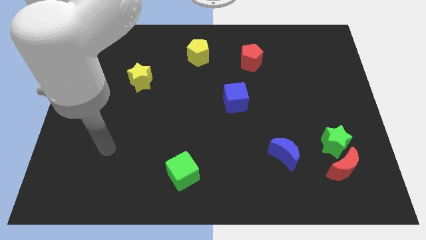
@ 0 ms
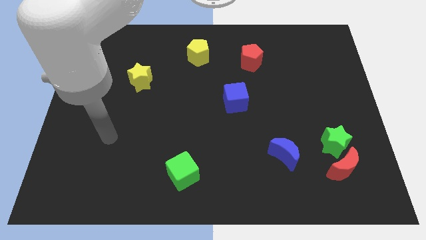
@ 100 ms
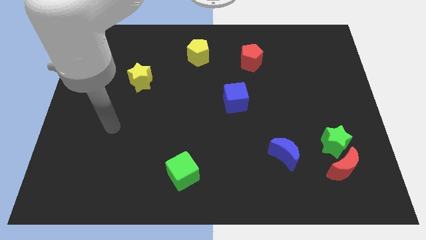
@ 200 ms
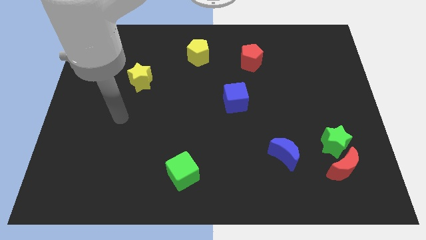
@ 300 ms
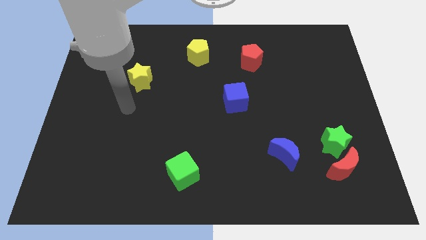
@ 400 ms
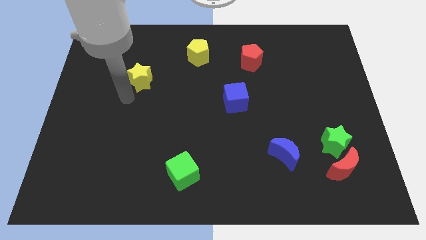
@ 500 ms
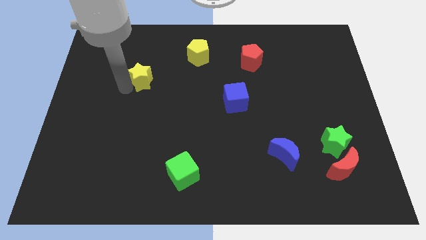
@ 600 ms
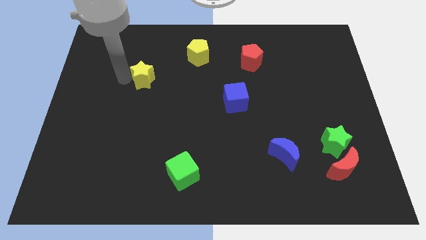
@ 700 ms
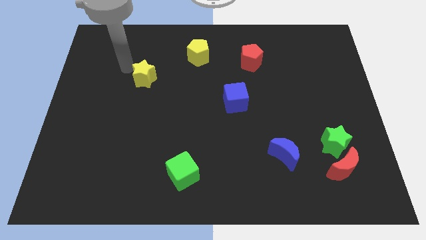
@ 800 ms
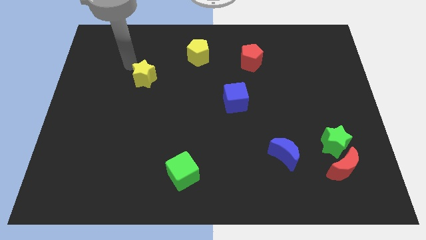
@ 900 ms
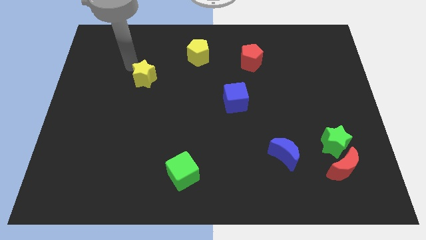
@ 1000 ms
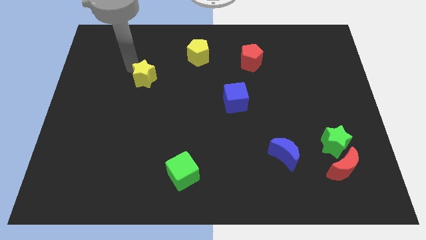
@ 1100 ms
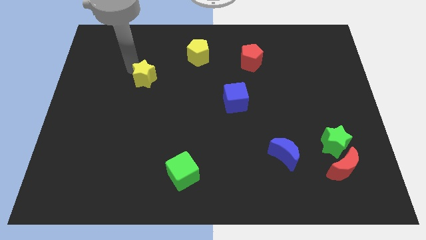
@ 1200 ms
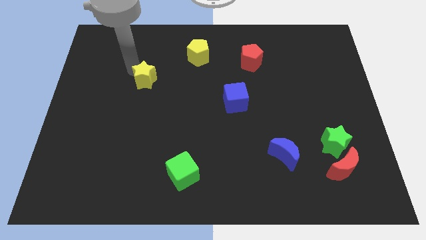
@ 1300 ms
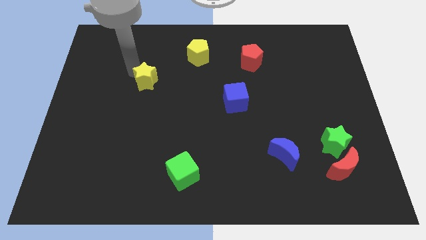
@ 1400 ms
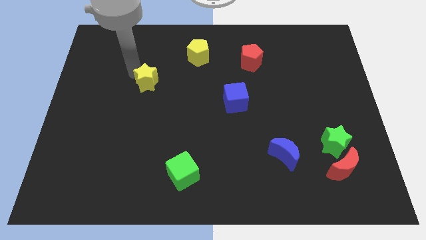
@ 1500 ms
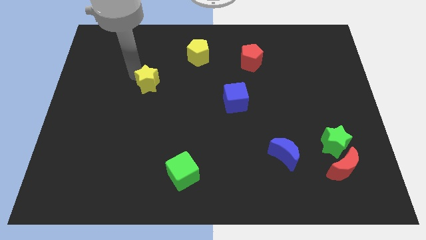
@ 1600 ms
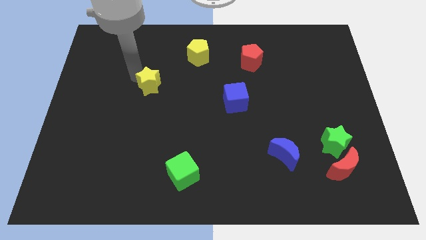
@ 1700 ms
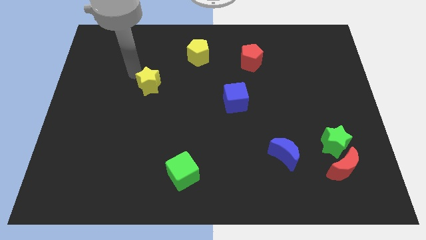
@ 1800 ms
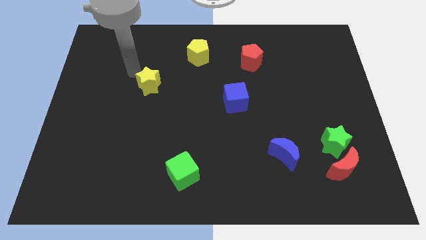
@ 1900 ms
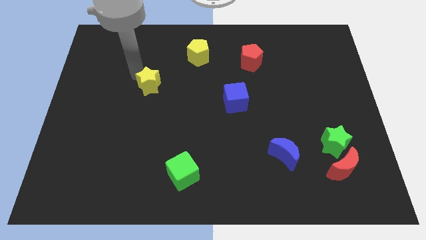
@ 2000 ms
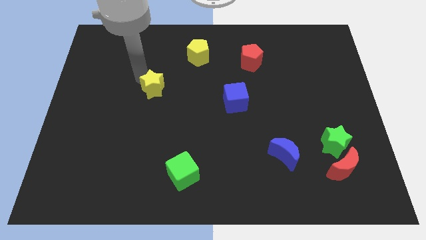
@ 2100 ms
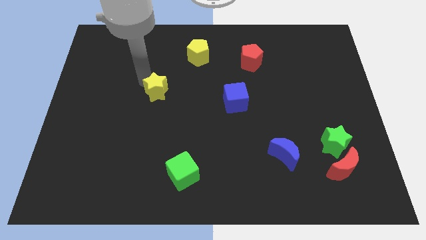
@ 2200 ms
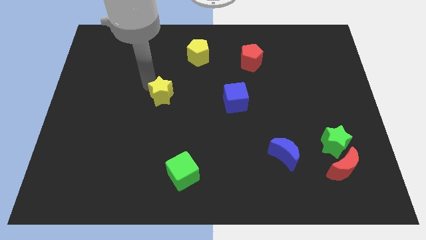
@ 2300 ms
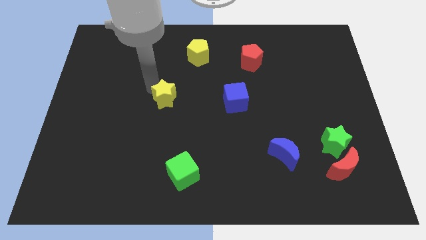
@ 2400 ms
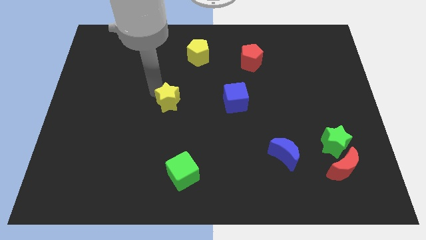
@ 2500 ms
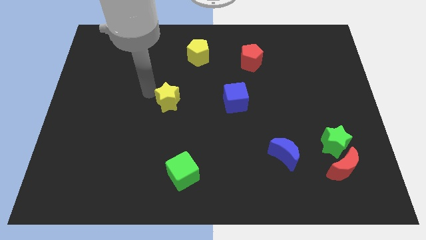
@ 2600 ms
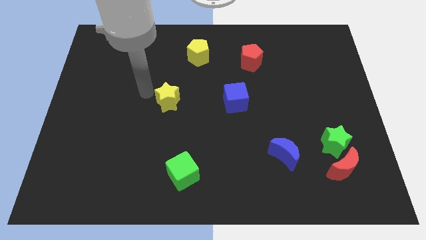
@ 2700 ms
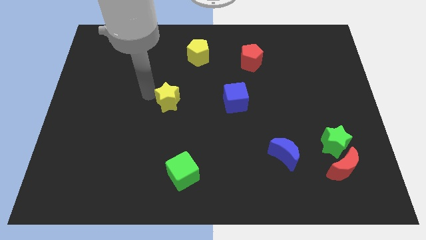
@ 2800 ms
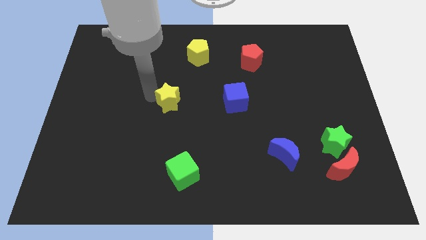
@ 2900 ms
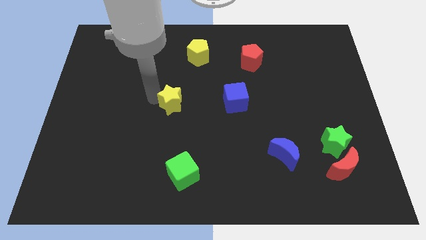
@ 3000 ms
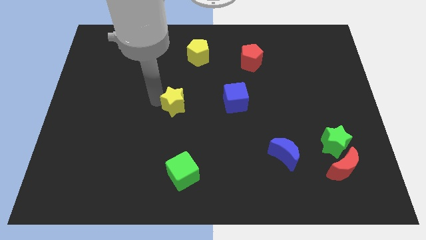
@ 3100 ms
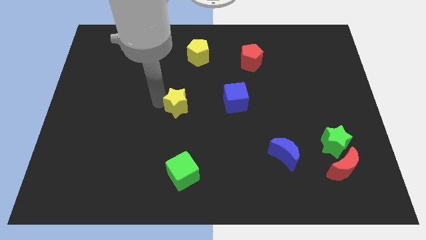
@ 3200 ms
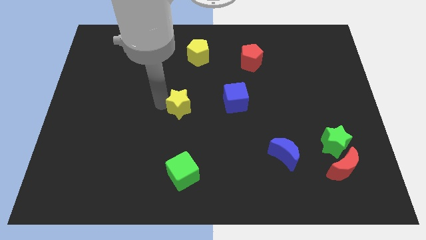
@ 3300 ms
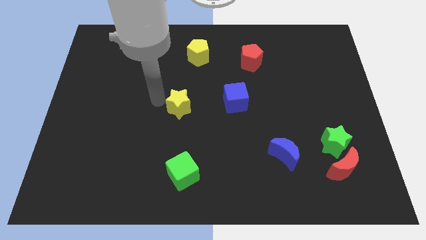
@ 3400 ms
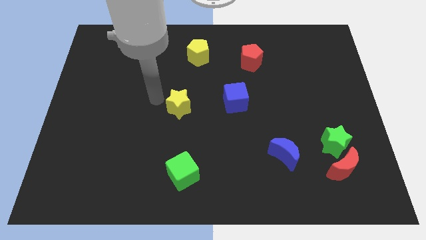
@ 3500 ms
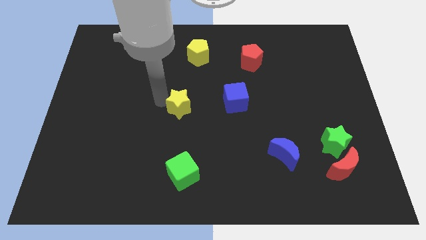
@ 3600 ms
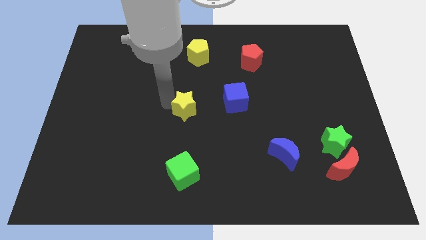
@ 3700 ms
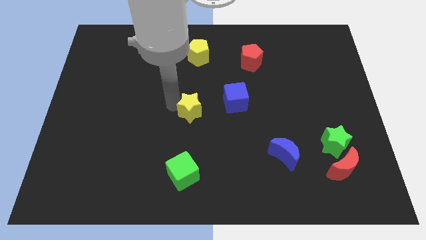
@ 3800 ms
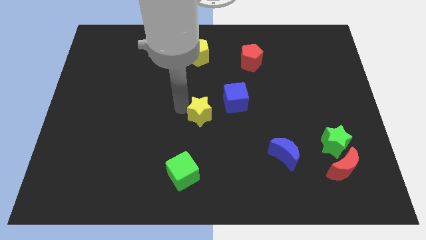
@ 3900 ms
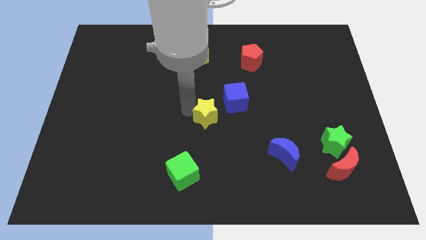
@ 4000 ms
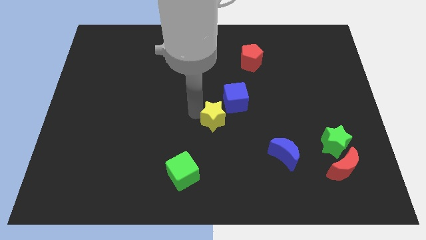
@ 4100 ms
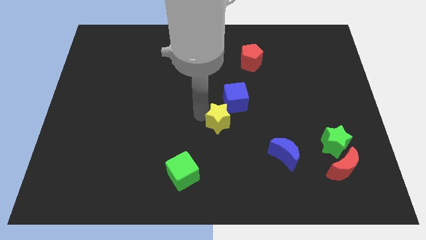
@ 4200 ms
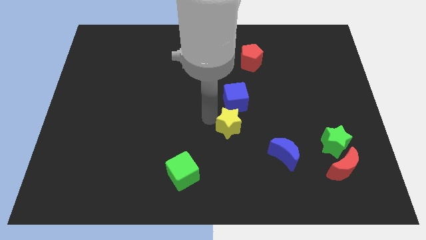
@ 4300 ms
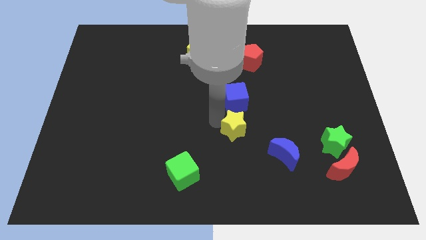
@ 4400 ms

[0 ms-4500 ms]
slide the yellow star to the top left side of the blue moon

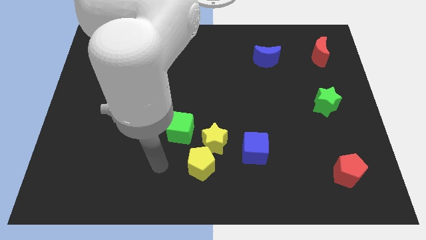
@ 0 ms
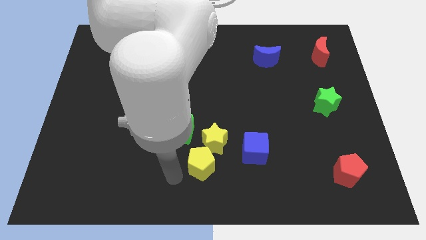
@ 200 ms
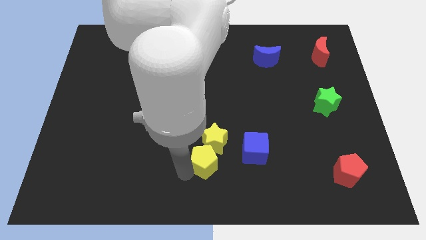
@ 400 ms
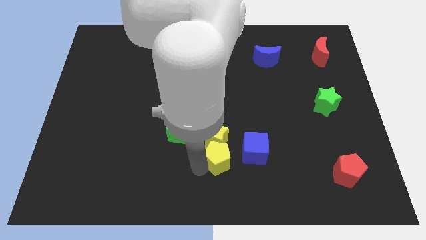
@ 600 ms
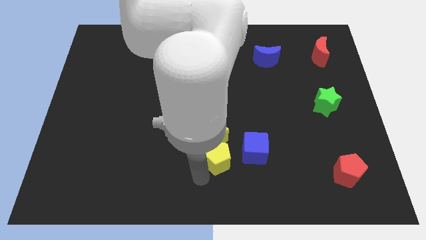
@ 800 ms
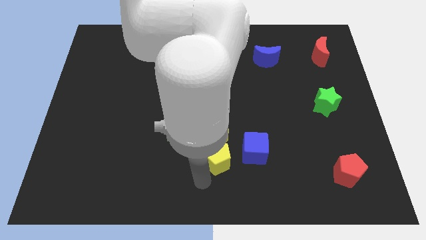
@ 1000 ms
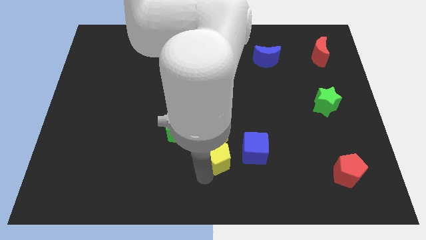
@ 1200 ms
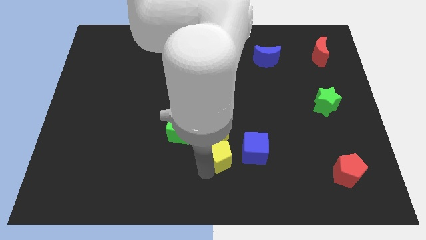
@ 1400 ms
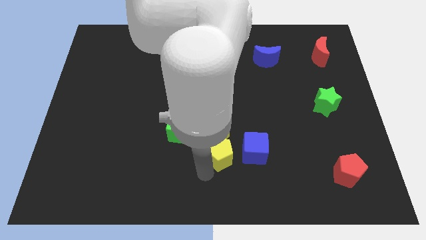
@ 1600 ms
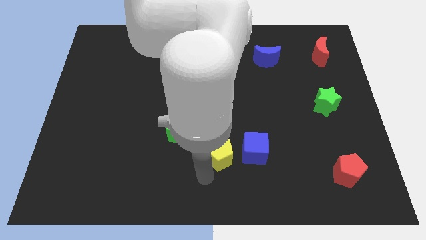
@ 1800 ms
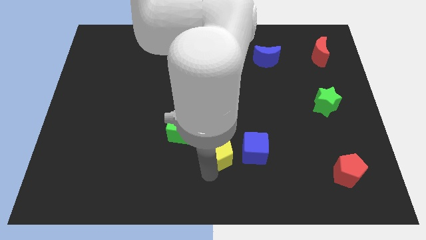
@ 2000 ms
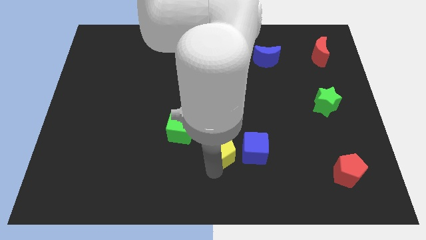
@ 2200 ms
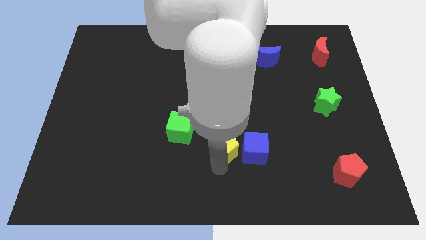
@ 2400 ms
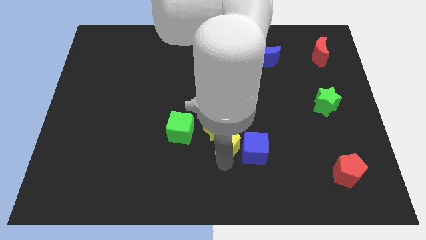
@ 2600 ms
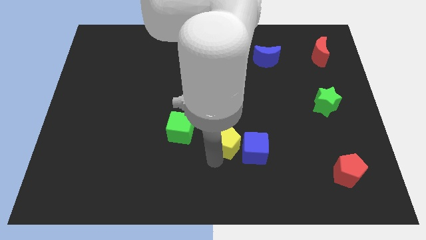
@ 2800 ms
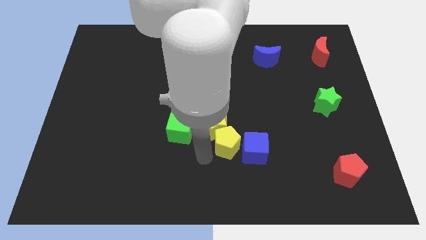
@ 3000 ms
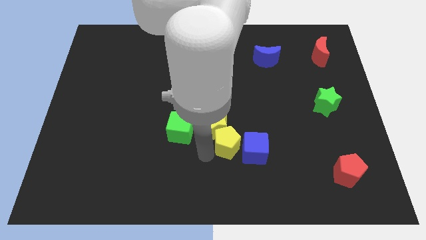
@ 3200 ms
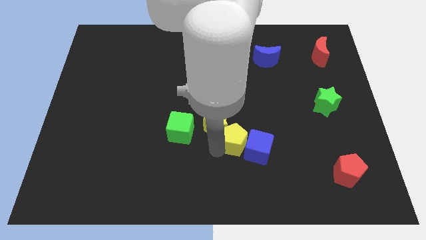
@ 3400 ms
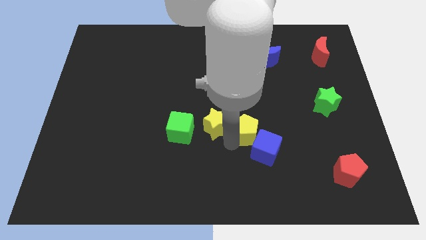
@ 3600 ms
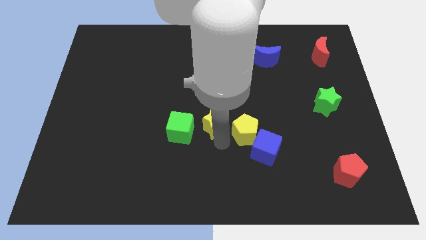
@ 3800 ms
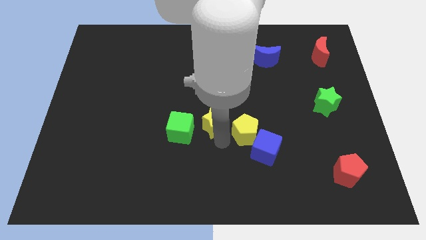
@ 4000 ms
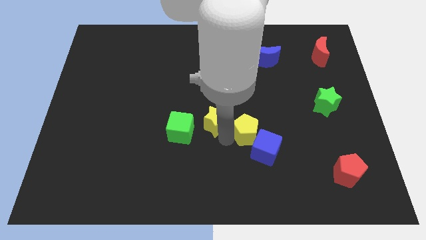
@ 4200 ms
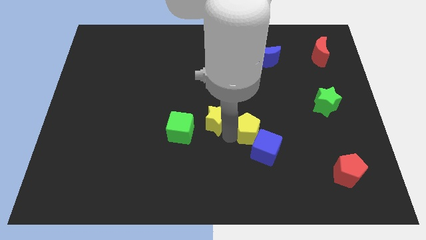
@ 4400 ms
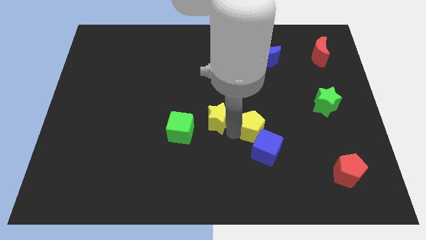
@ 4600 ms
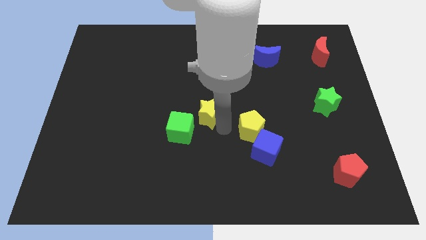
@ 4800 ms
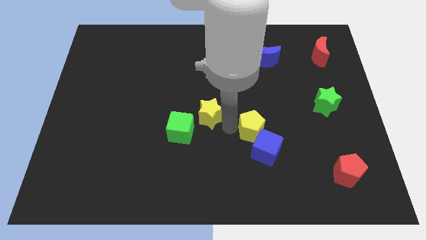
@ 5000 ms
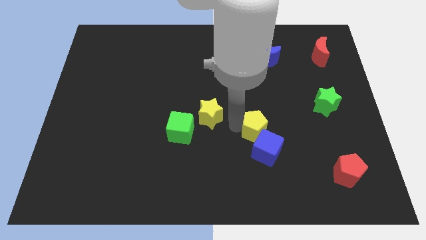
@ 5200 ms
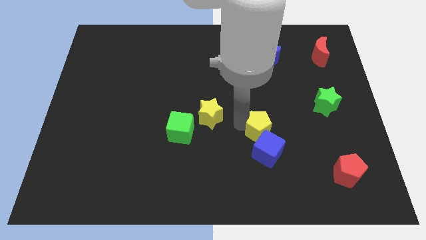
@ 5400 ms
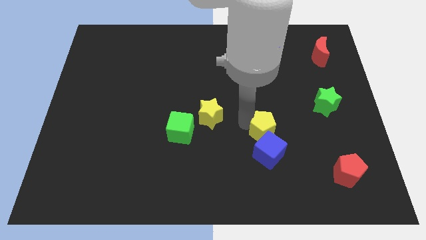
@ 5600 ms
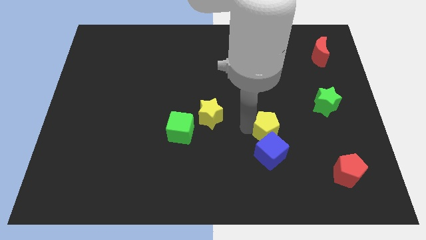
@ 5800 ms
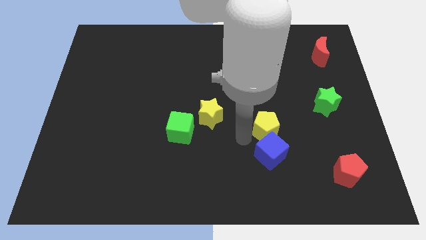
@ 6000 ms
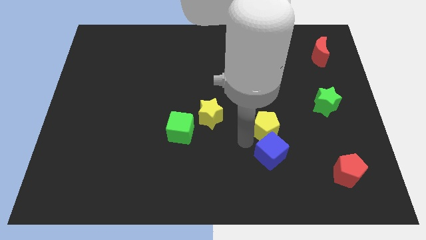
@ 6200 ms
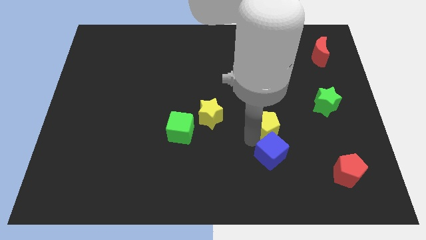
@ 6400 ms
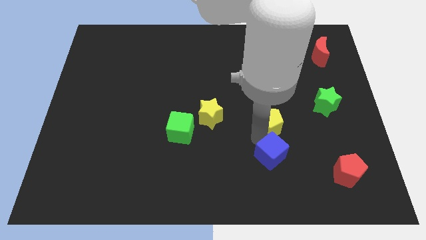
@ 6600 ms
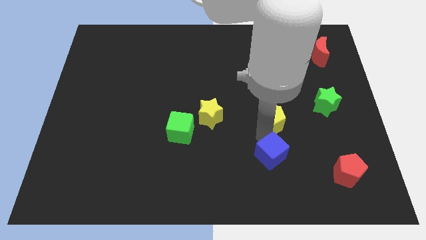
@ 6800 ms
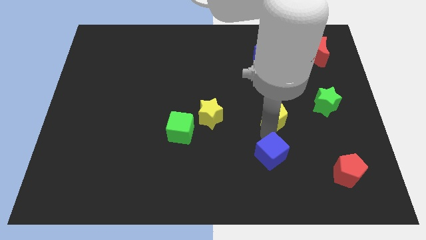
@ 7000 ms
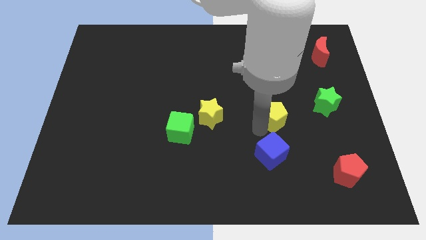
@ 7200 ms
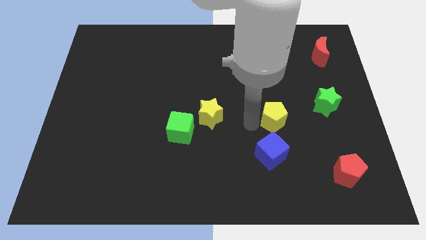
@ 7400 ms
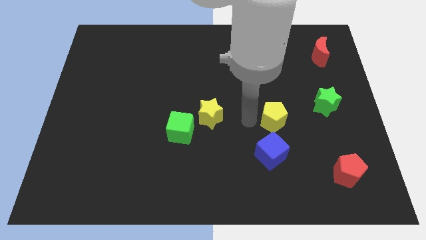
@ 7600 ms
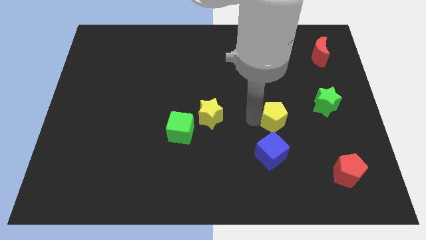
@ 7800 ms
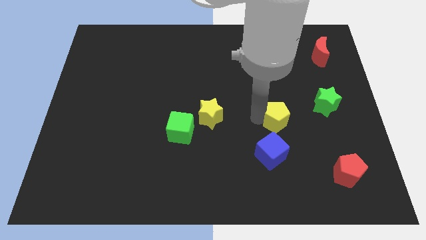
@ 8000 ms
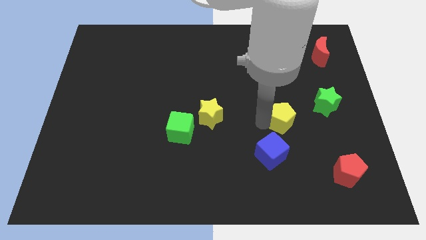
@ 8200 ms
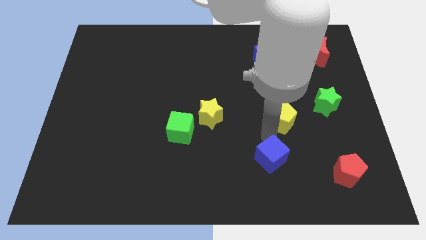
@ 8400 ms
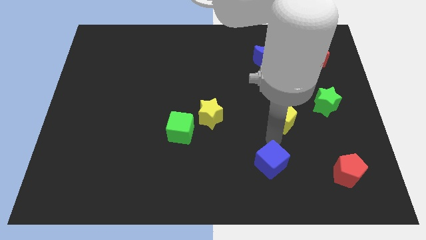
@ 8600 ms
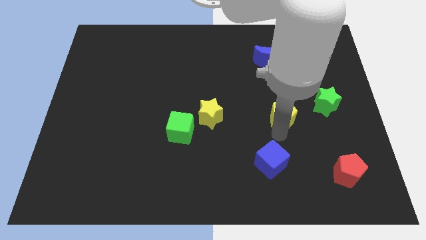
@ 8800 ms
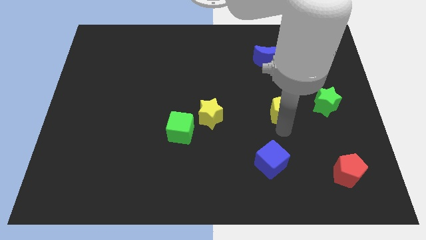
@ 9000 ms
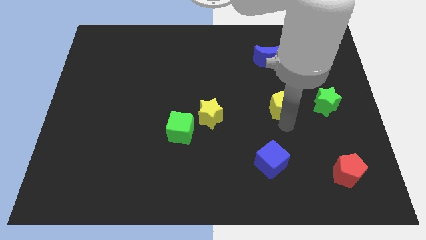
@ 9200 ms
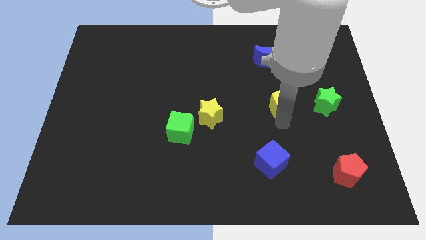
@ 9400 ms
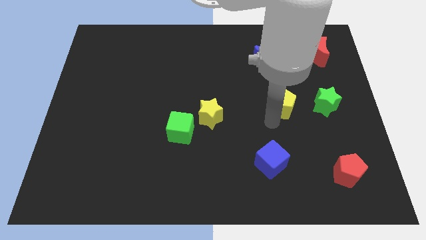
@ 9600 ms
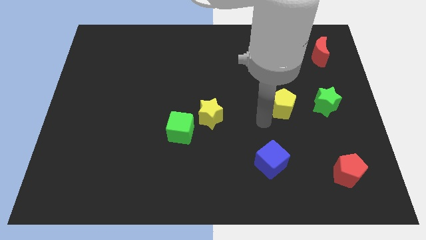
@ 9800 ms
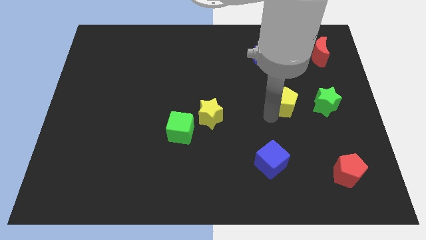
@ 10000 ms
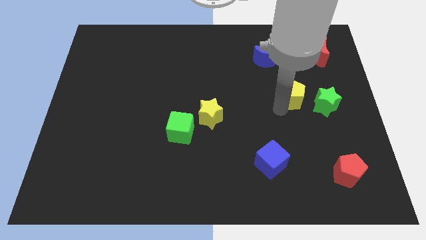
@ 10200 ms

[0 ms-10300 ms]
push the yellow pentagon to the top left side of the green star
